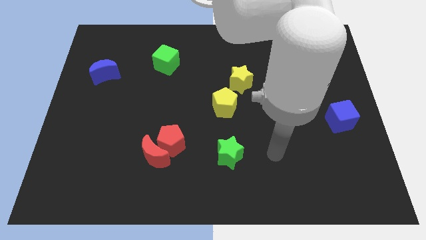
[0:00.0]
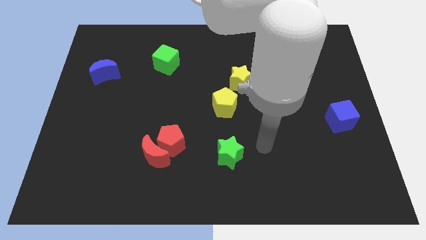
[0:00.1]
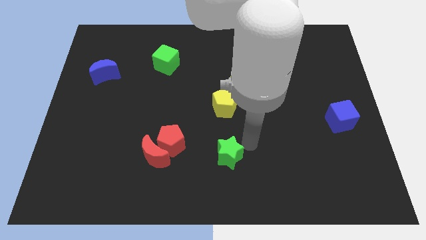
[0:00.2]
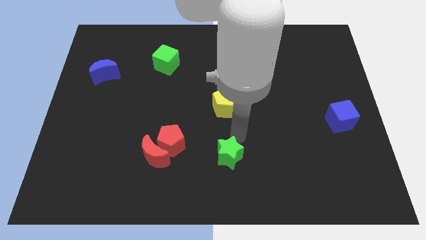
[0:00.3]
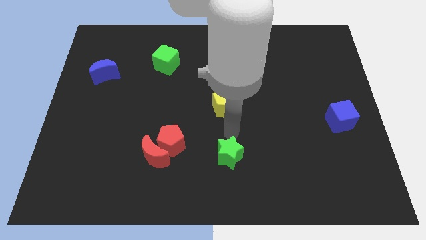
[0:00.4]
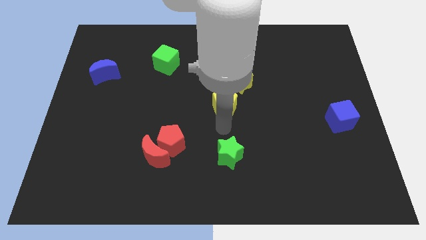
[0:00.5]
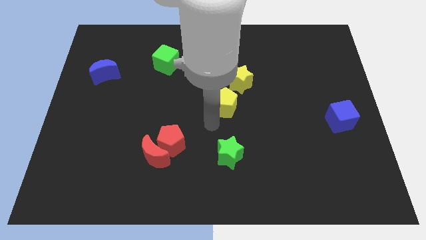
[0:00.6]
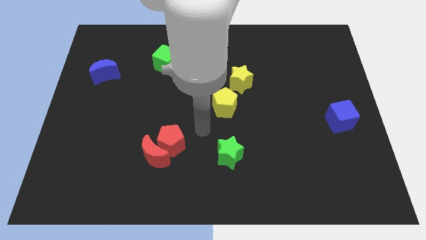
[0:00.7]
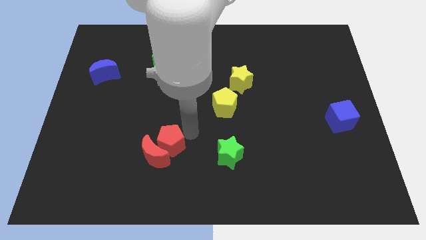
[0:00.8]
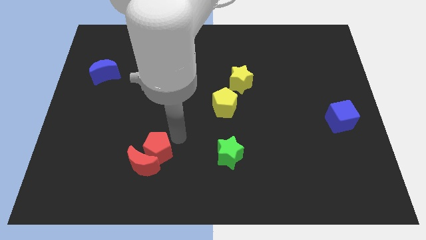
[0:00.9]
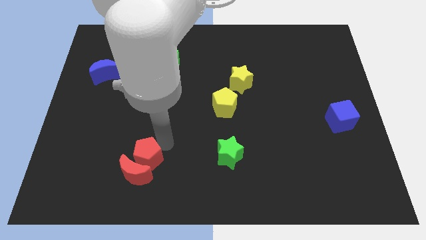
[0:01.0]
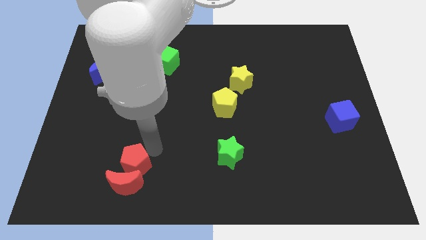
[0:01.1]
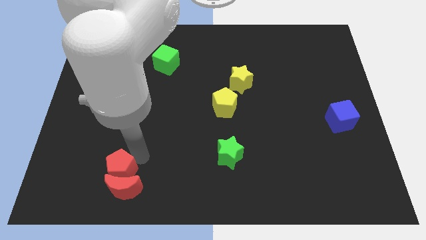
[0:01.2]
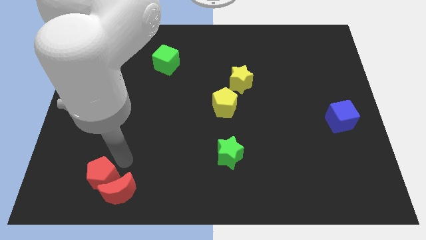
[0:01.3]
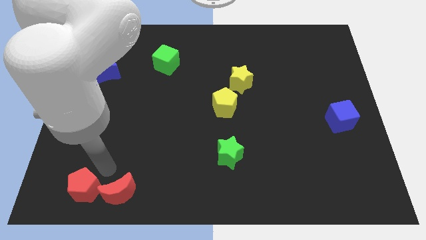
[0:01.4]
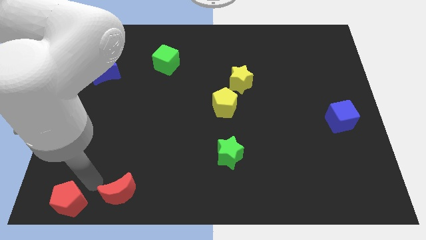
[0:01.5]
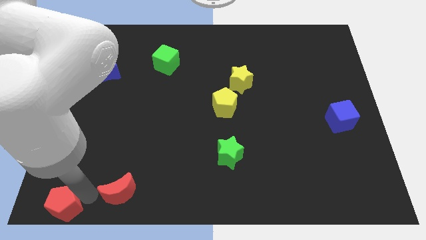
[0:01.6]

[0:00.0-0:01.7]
move the red moon away from the red pentagon

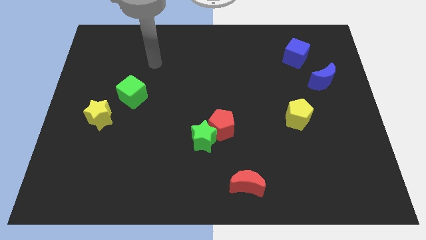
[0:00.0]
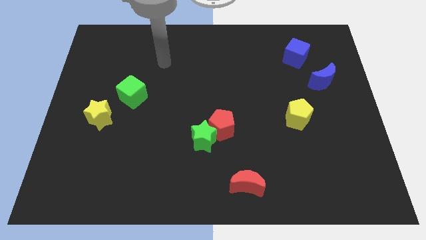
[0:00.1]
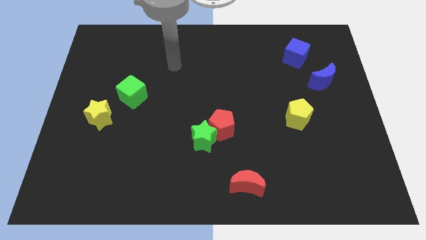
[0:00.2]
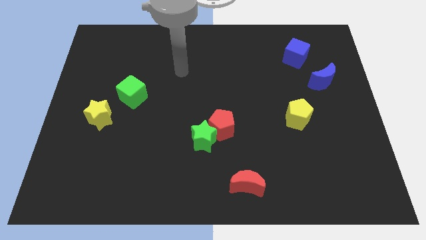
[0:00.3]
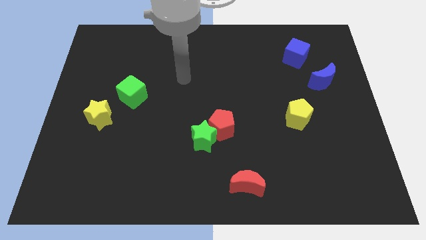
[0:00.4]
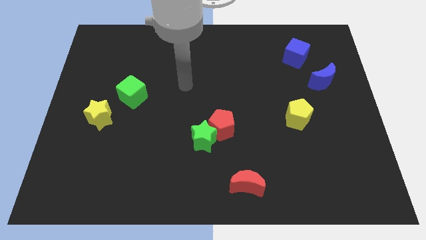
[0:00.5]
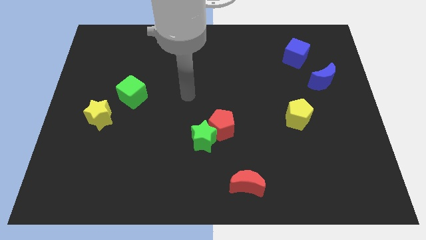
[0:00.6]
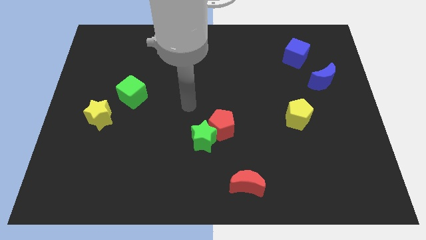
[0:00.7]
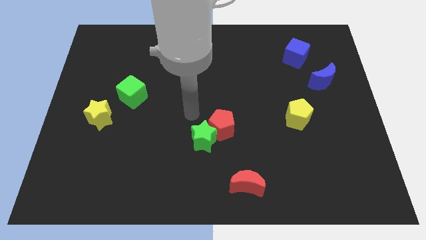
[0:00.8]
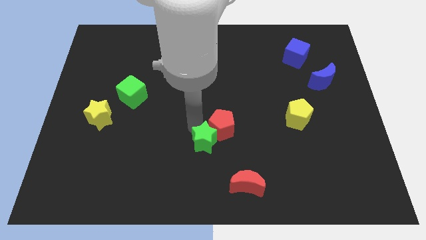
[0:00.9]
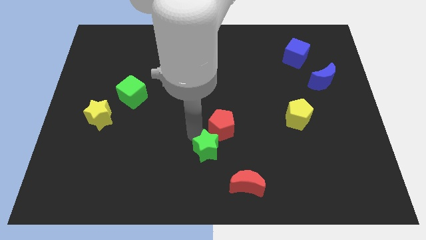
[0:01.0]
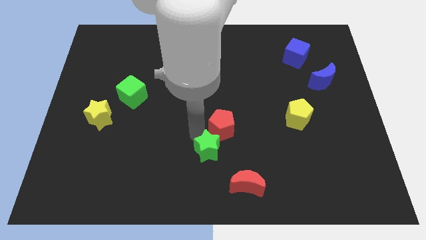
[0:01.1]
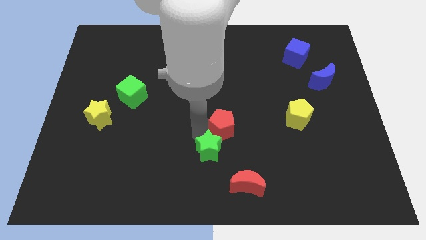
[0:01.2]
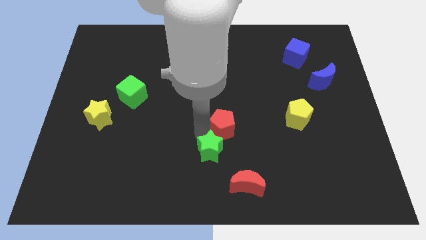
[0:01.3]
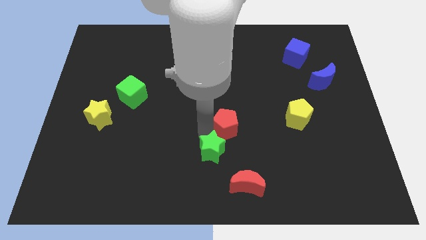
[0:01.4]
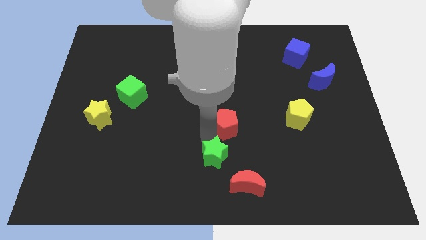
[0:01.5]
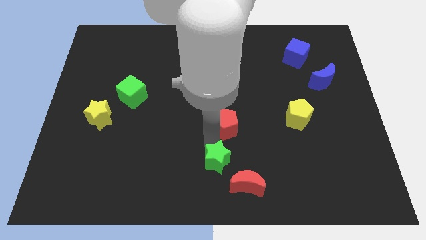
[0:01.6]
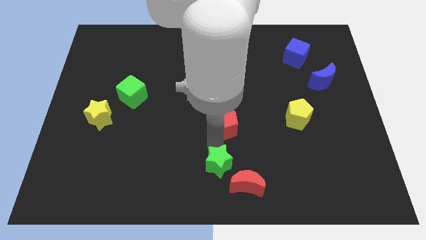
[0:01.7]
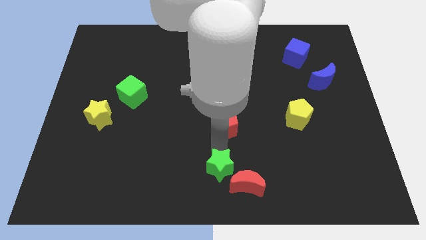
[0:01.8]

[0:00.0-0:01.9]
separate the red pentagon from the green star

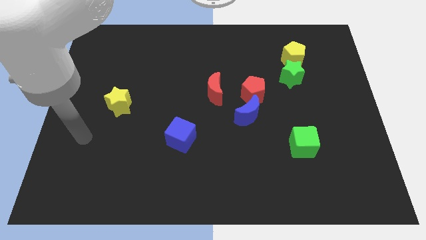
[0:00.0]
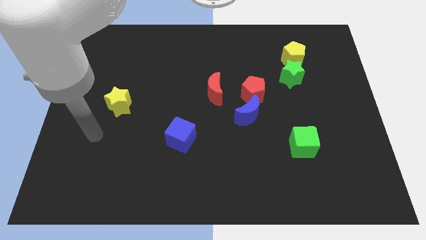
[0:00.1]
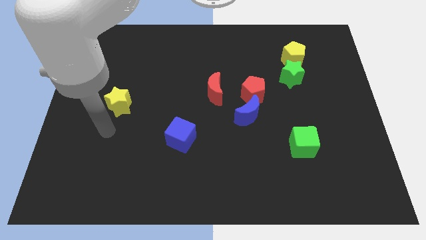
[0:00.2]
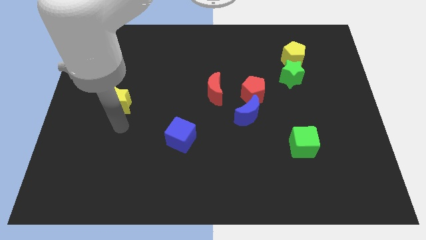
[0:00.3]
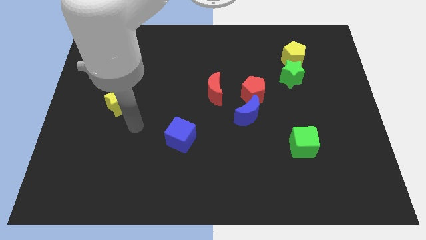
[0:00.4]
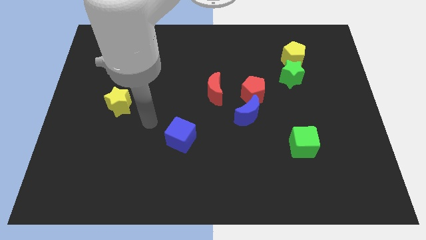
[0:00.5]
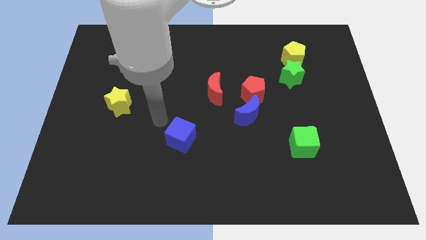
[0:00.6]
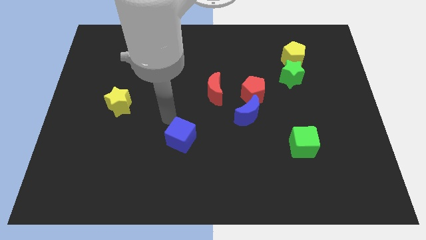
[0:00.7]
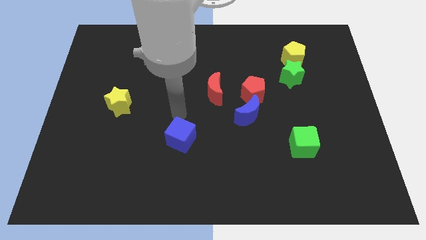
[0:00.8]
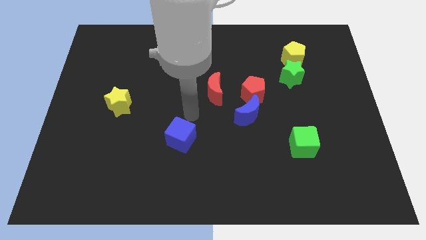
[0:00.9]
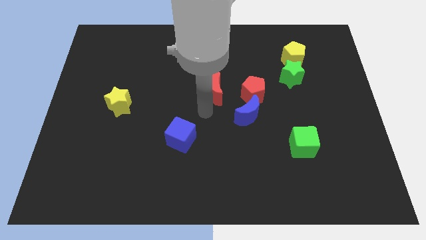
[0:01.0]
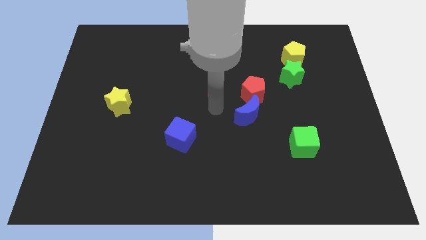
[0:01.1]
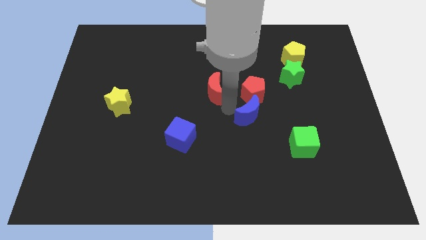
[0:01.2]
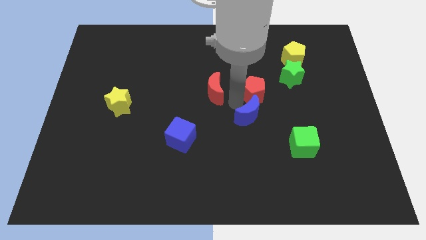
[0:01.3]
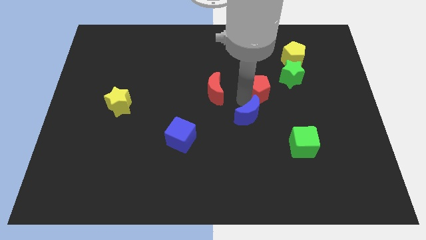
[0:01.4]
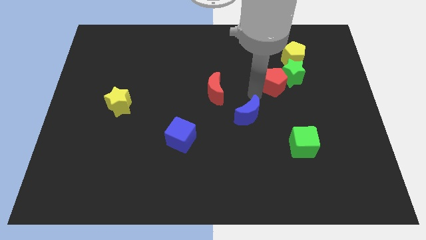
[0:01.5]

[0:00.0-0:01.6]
separate the blue moon from the red pentagon

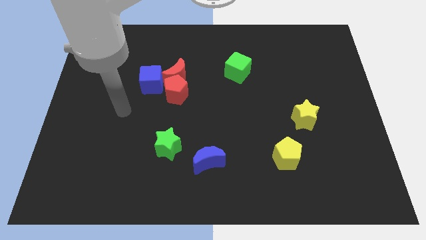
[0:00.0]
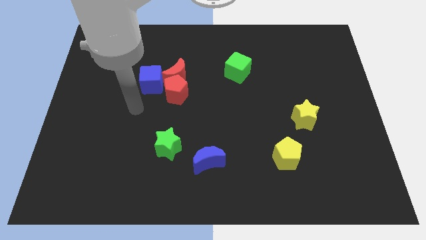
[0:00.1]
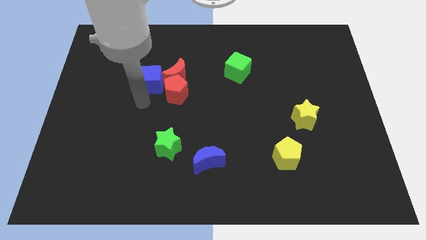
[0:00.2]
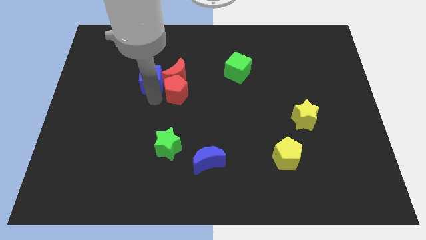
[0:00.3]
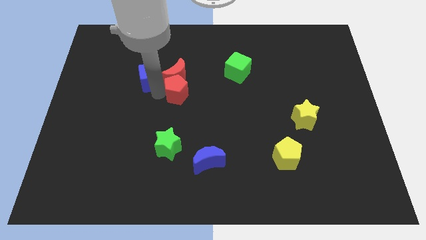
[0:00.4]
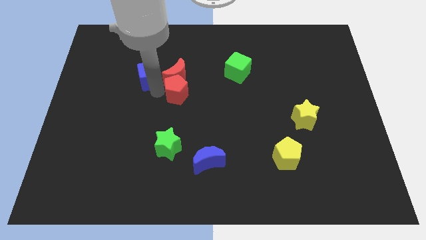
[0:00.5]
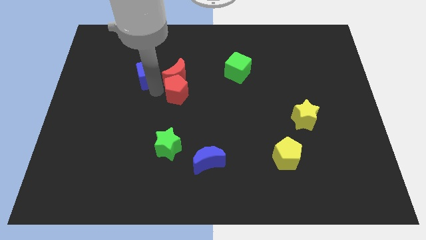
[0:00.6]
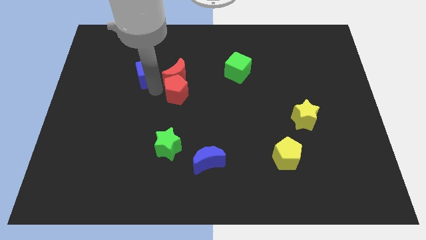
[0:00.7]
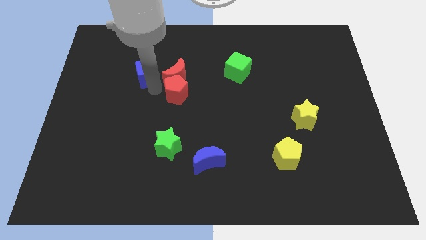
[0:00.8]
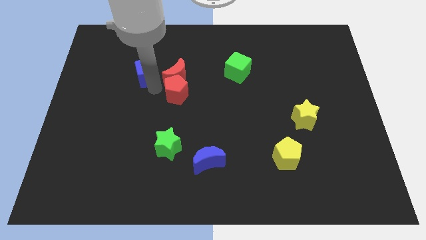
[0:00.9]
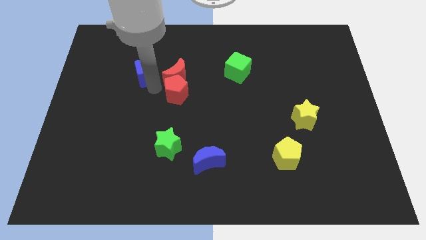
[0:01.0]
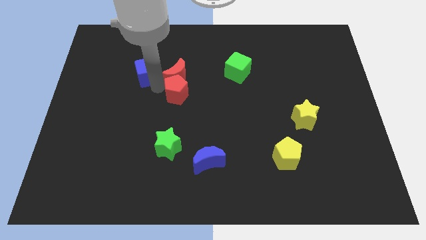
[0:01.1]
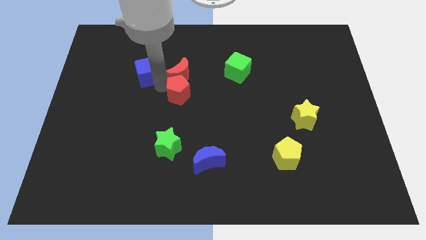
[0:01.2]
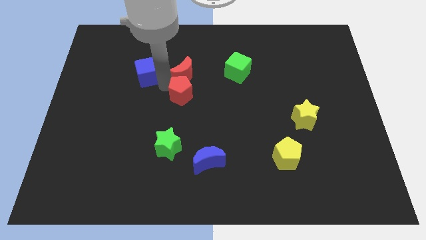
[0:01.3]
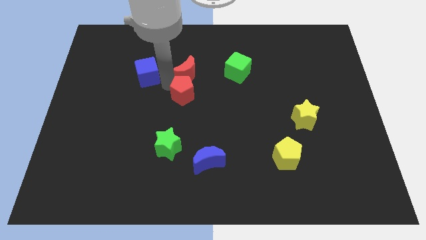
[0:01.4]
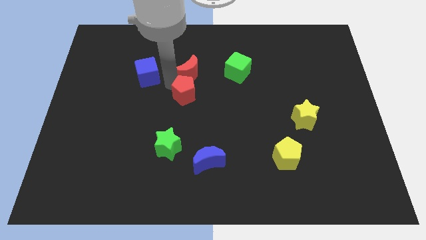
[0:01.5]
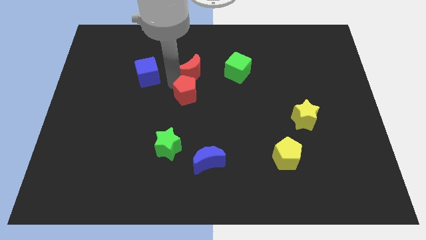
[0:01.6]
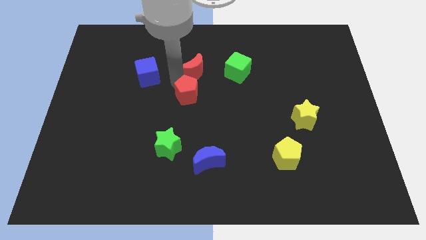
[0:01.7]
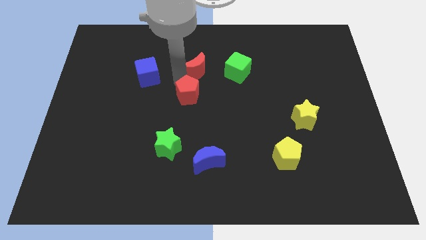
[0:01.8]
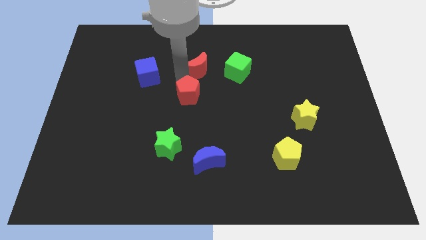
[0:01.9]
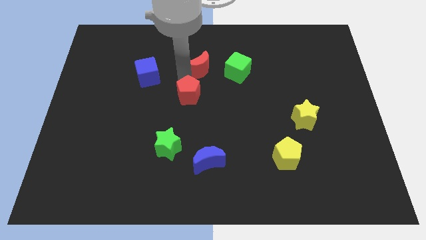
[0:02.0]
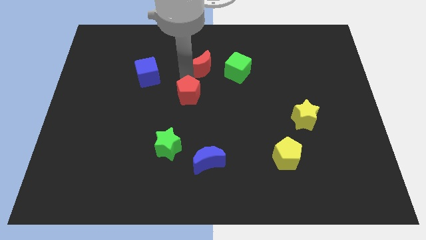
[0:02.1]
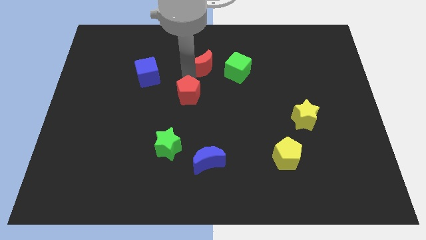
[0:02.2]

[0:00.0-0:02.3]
separate the red moon from the red pentagon and blue cube

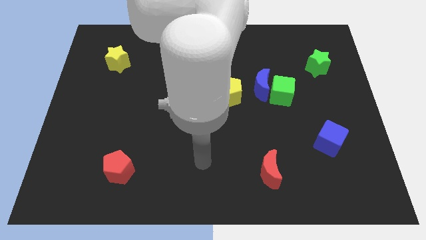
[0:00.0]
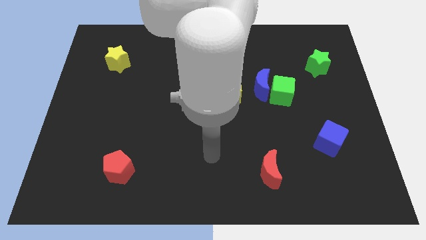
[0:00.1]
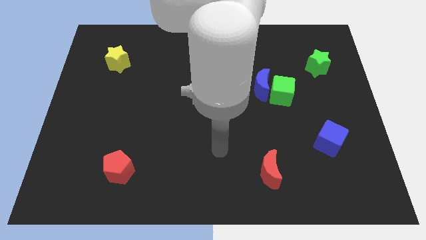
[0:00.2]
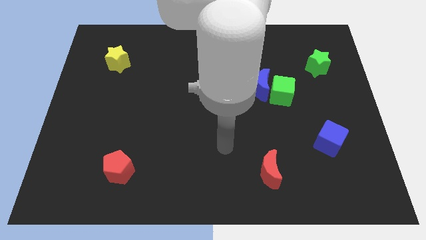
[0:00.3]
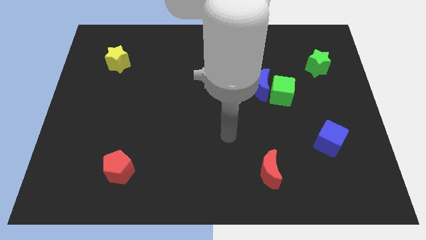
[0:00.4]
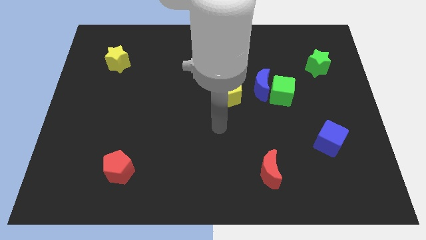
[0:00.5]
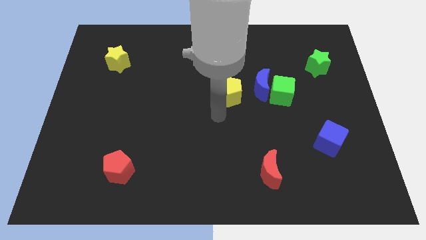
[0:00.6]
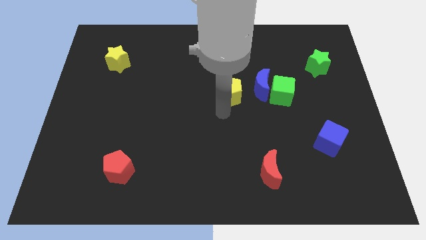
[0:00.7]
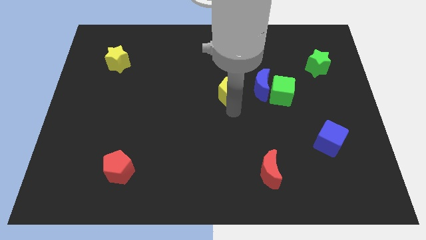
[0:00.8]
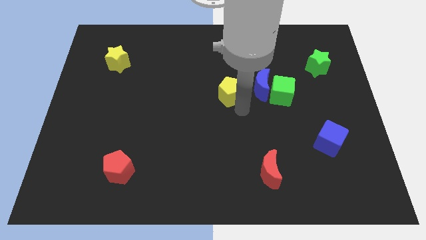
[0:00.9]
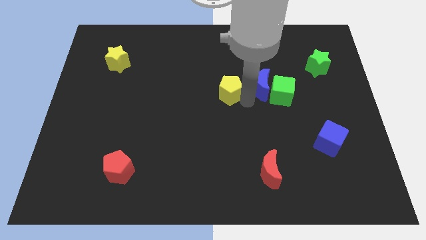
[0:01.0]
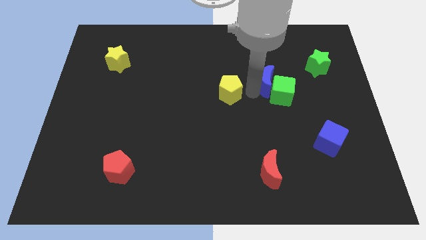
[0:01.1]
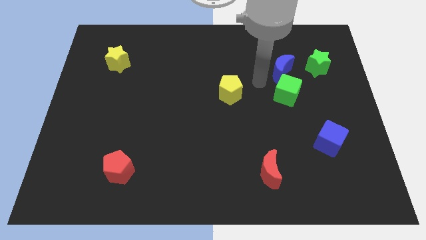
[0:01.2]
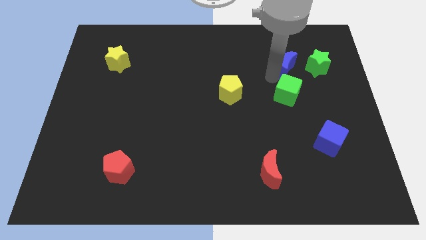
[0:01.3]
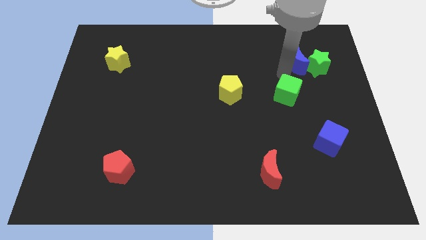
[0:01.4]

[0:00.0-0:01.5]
move the green cube away from the blue moon

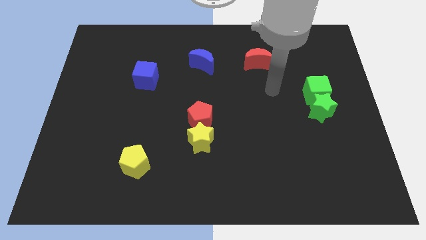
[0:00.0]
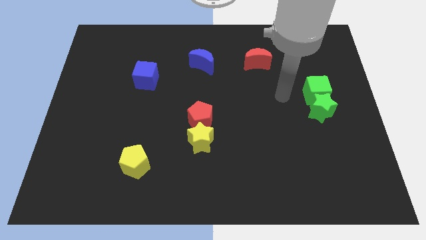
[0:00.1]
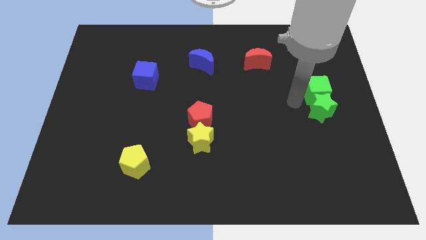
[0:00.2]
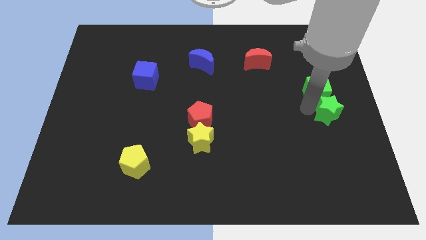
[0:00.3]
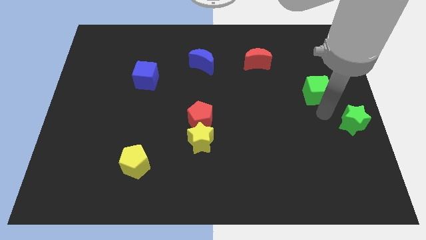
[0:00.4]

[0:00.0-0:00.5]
move the green cube away from the green star
